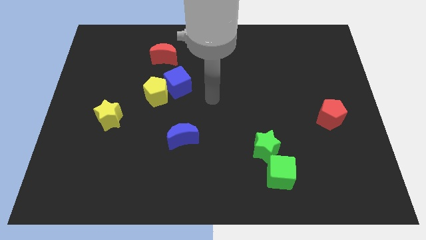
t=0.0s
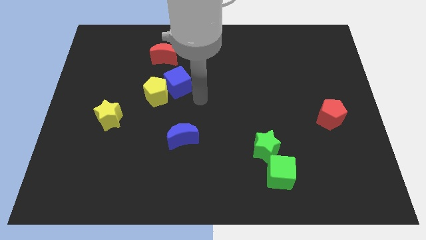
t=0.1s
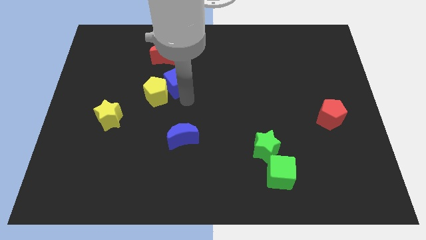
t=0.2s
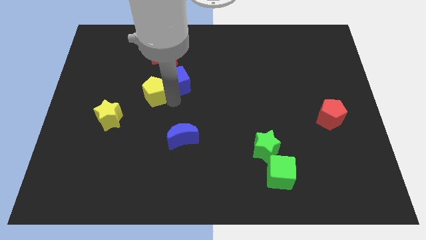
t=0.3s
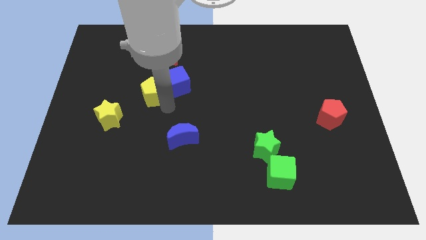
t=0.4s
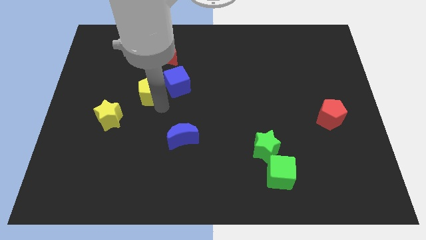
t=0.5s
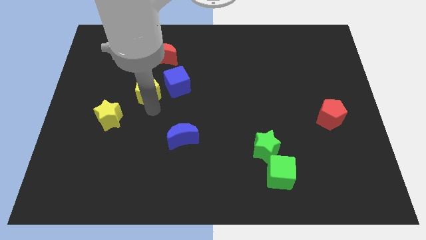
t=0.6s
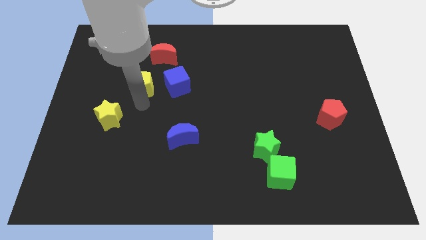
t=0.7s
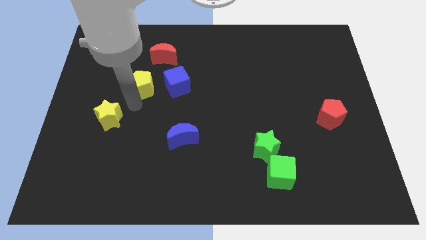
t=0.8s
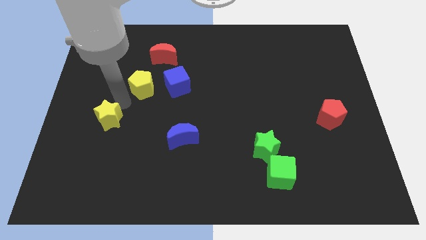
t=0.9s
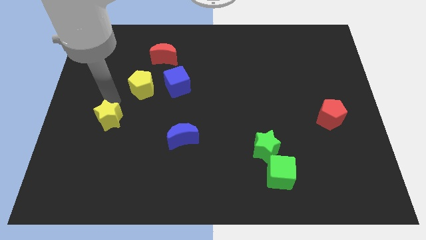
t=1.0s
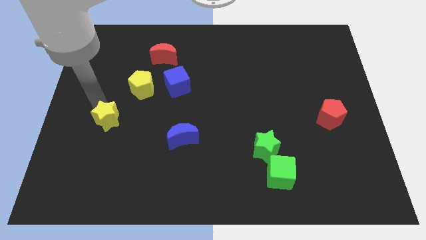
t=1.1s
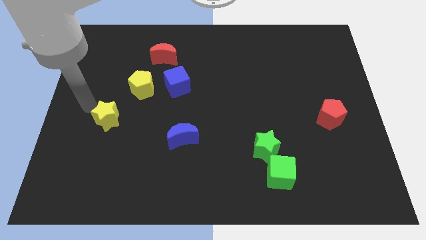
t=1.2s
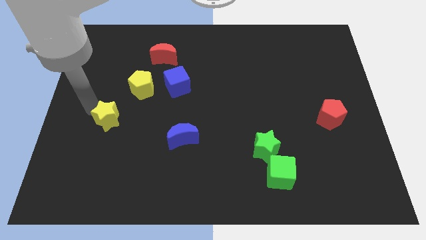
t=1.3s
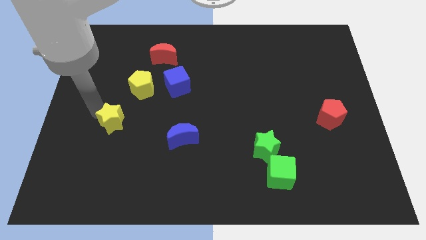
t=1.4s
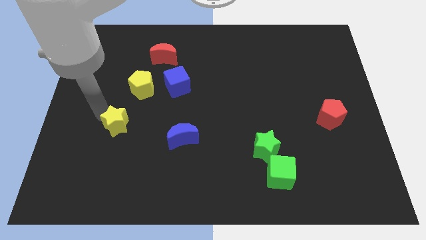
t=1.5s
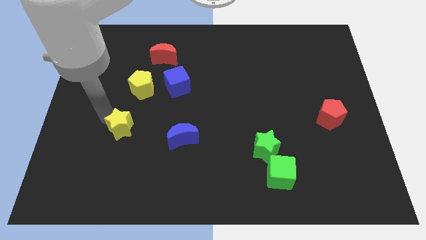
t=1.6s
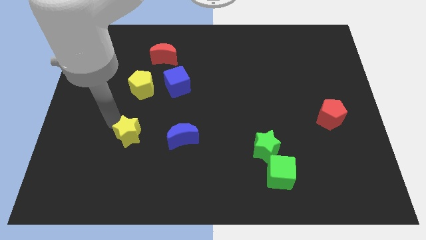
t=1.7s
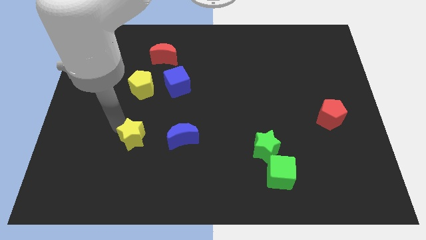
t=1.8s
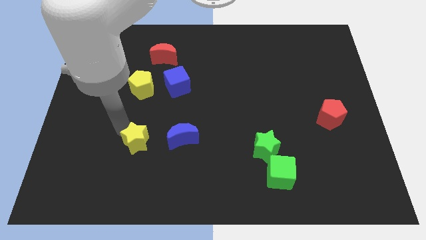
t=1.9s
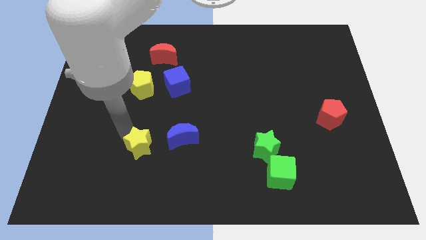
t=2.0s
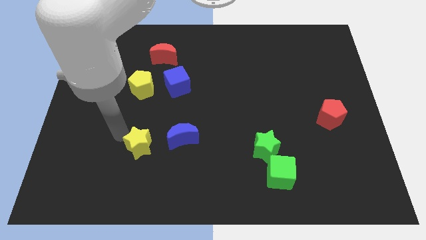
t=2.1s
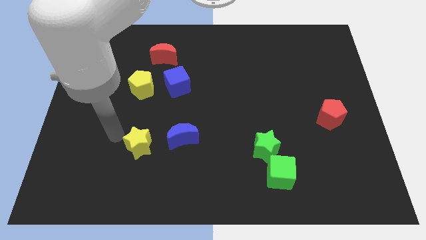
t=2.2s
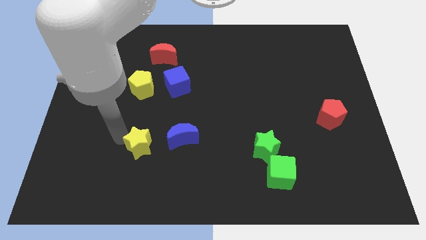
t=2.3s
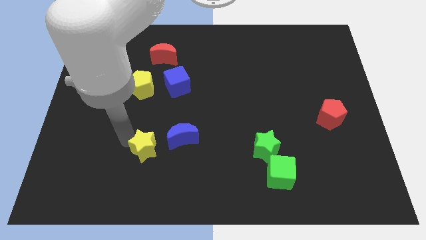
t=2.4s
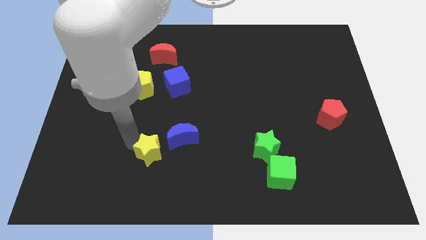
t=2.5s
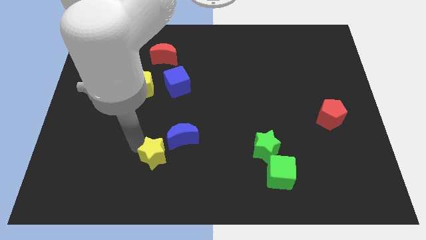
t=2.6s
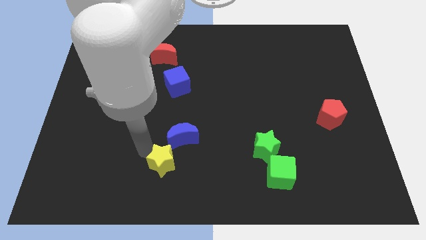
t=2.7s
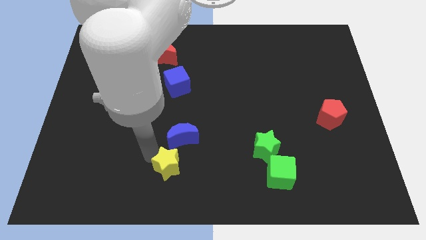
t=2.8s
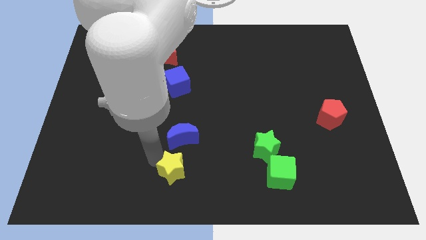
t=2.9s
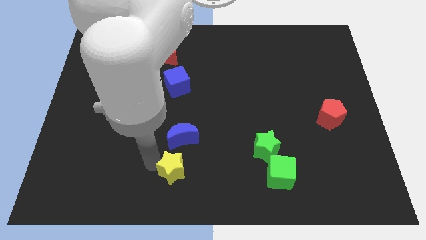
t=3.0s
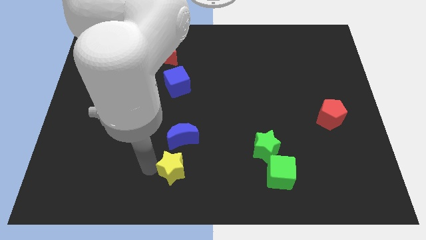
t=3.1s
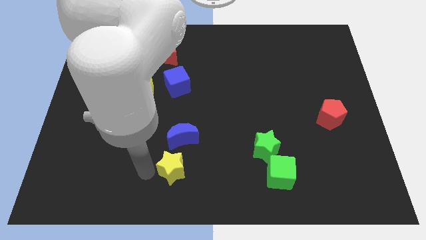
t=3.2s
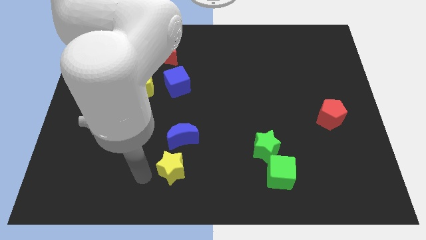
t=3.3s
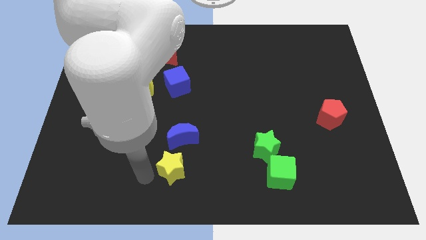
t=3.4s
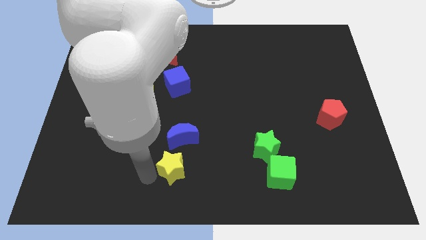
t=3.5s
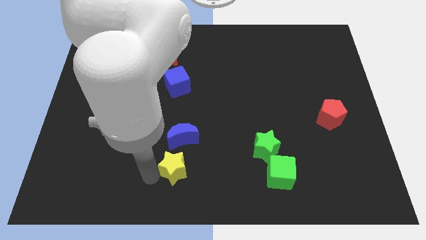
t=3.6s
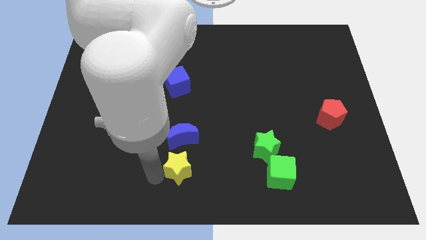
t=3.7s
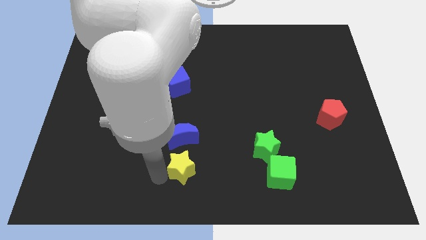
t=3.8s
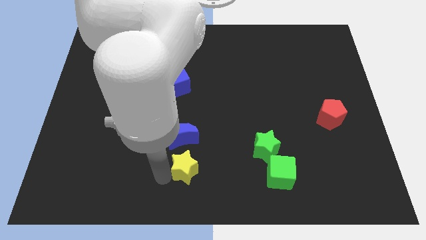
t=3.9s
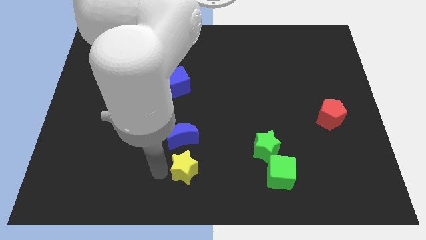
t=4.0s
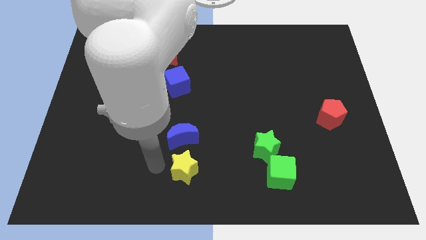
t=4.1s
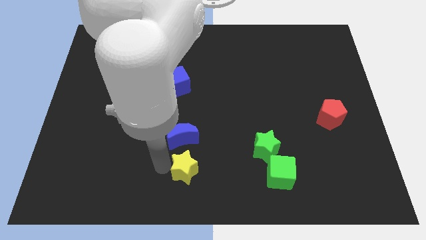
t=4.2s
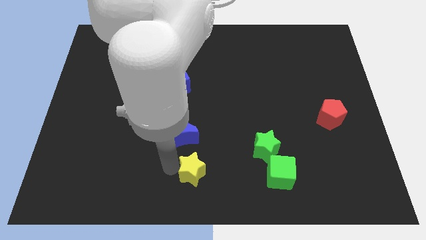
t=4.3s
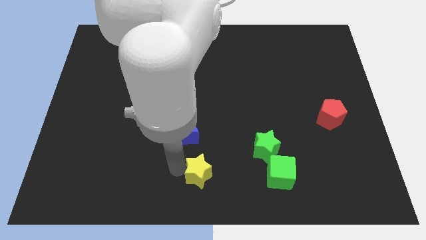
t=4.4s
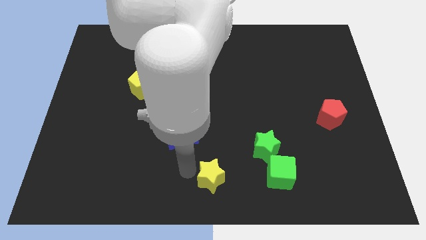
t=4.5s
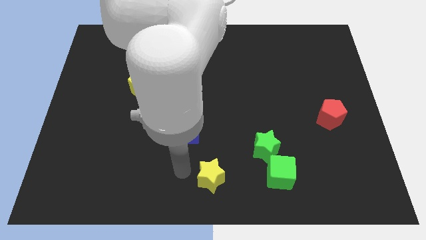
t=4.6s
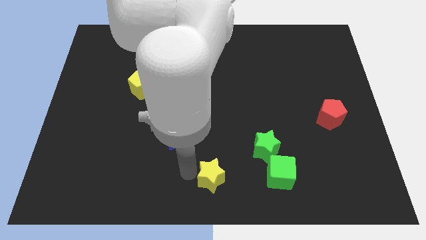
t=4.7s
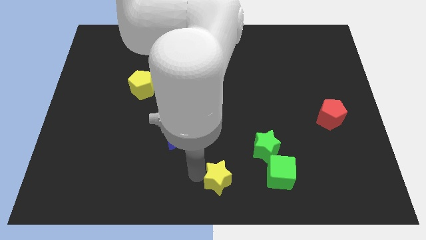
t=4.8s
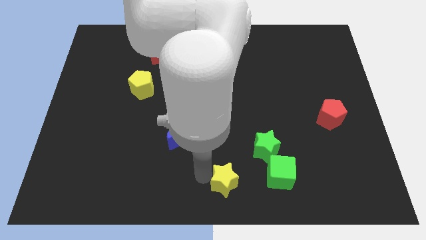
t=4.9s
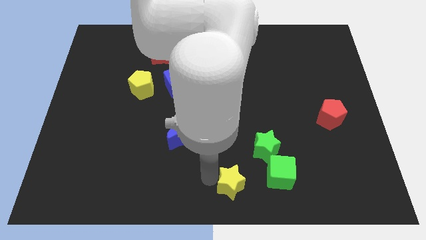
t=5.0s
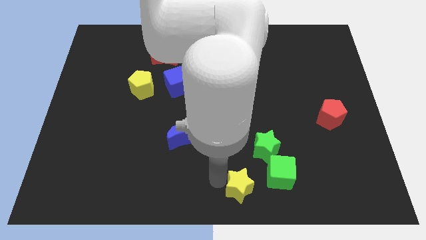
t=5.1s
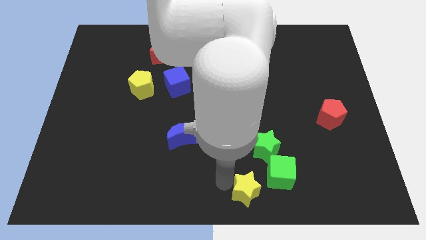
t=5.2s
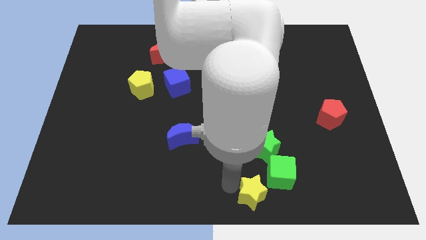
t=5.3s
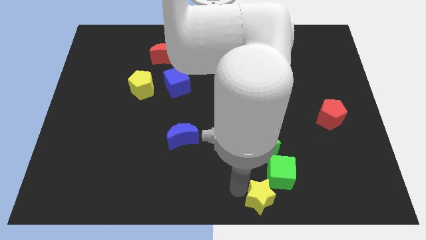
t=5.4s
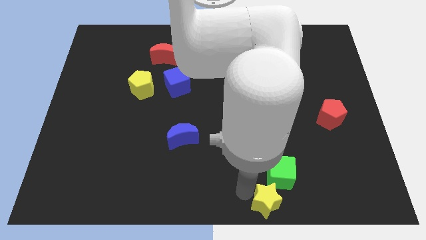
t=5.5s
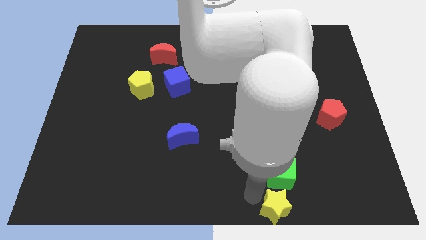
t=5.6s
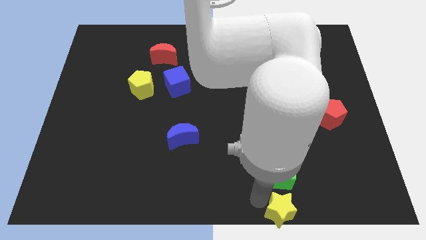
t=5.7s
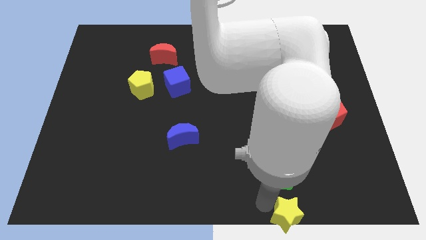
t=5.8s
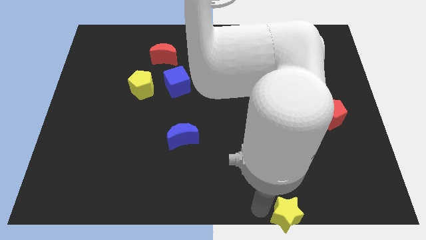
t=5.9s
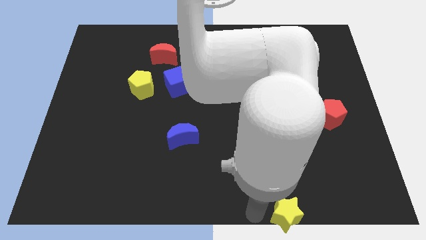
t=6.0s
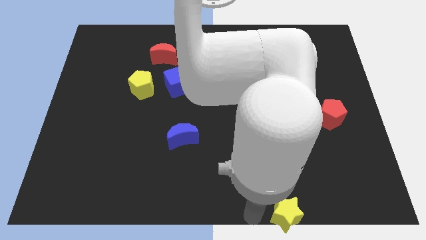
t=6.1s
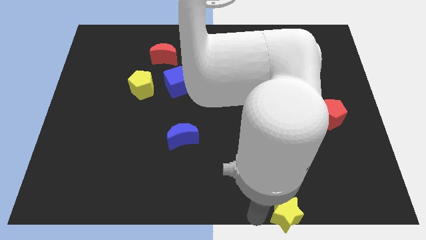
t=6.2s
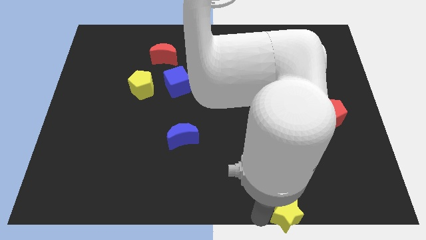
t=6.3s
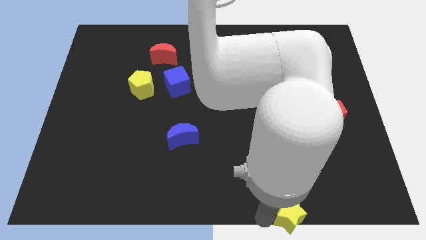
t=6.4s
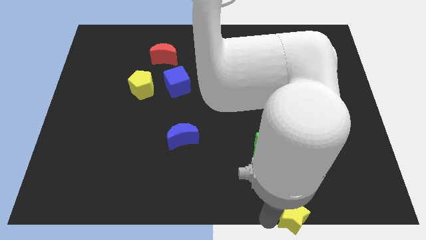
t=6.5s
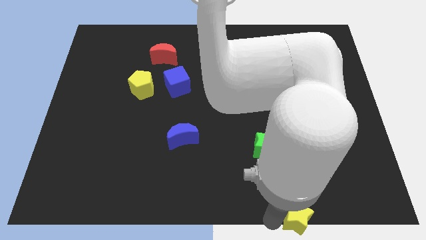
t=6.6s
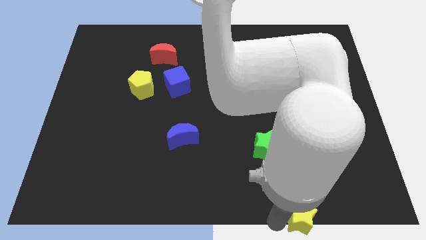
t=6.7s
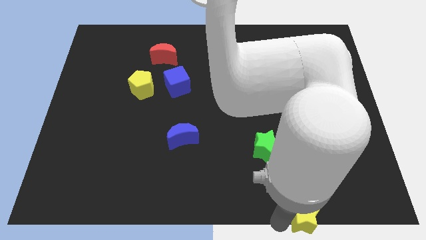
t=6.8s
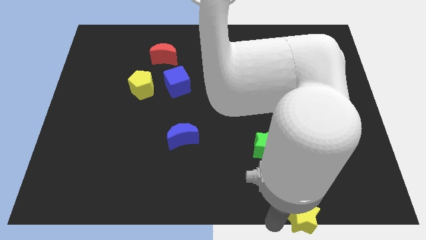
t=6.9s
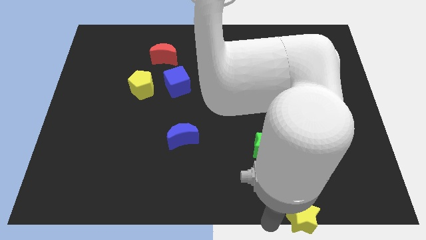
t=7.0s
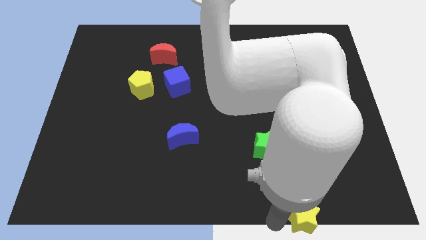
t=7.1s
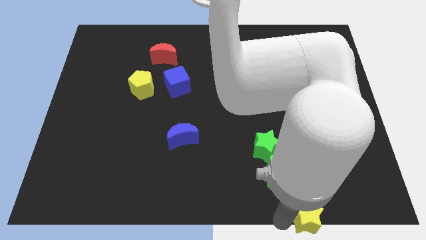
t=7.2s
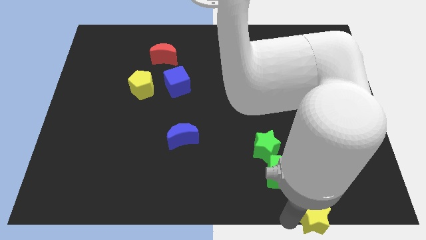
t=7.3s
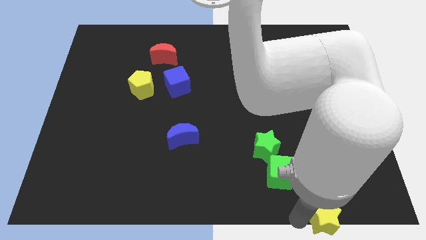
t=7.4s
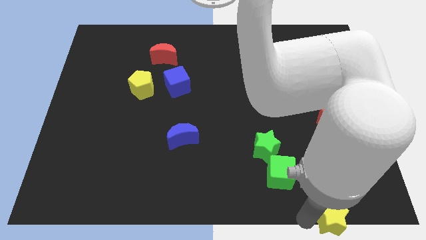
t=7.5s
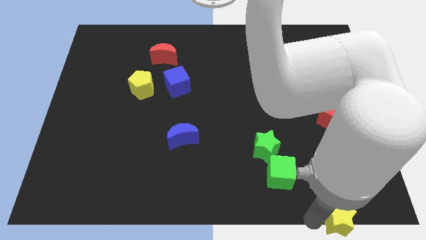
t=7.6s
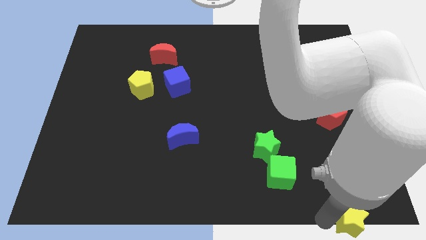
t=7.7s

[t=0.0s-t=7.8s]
slide the yellow star to the lower right corner
